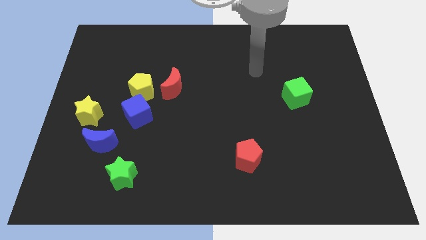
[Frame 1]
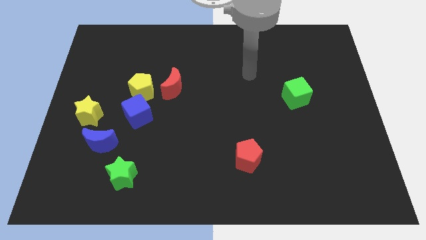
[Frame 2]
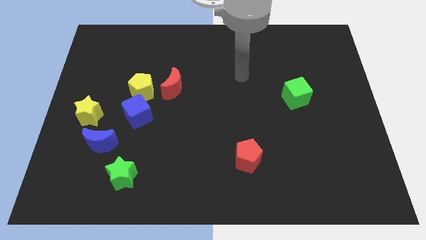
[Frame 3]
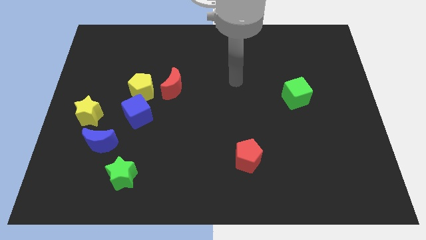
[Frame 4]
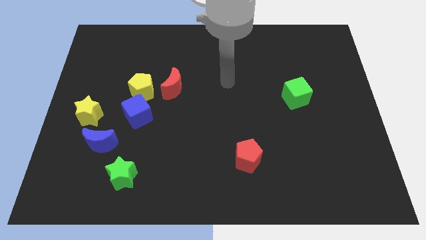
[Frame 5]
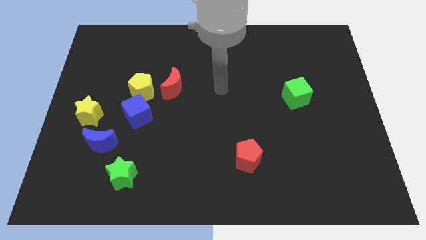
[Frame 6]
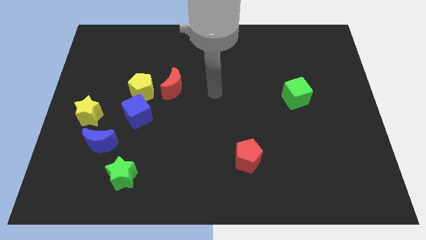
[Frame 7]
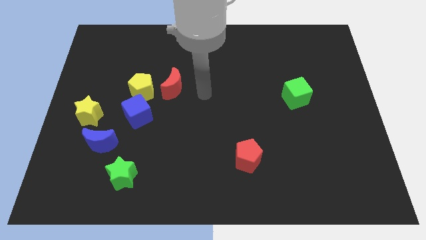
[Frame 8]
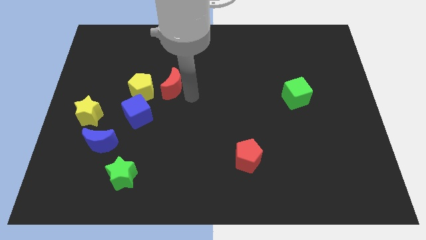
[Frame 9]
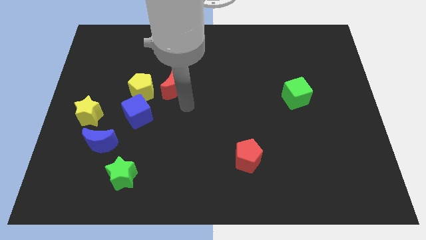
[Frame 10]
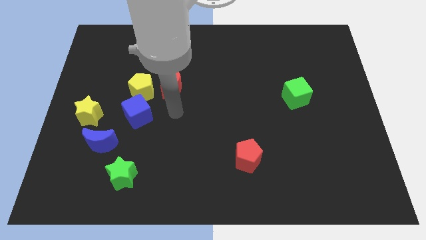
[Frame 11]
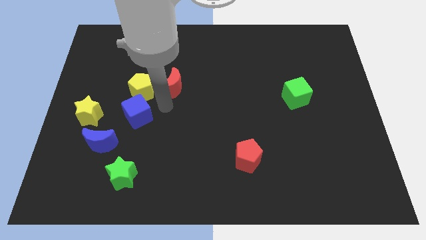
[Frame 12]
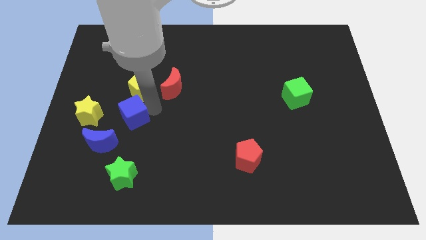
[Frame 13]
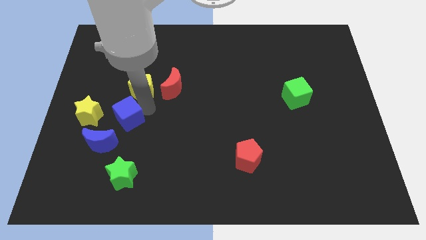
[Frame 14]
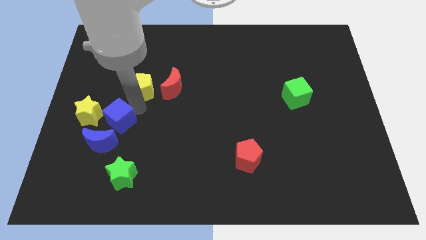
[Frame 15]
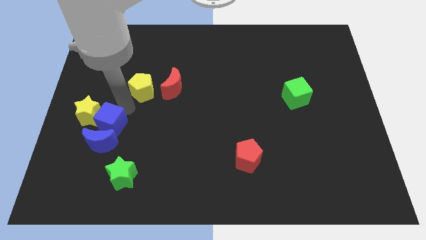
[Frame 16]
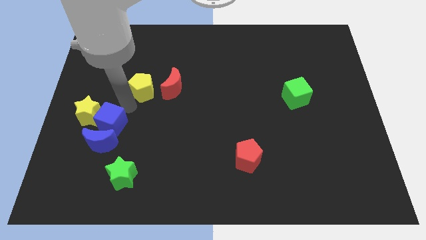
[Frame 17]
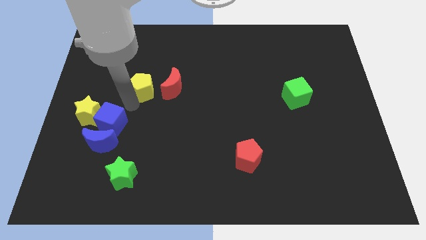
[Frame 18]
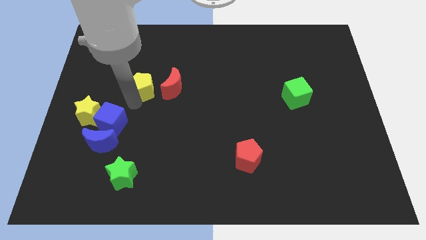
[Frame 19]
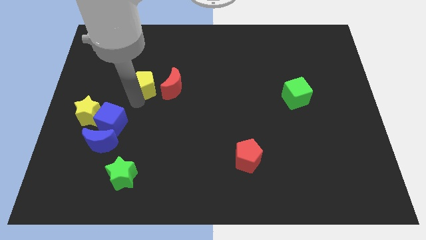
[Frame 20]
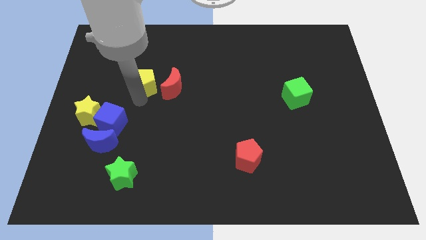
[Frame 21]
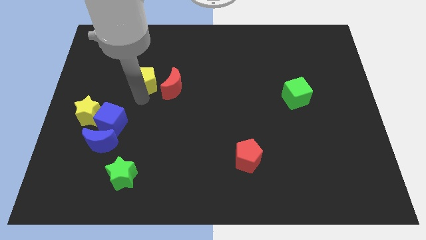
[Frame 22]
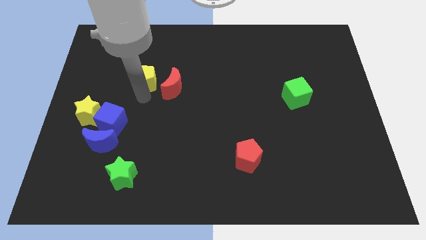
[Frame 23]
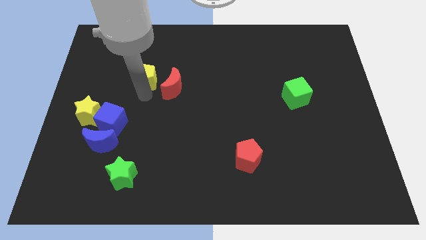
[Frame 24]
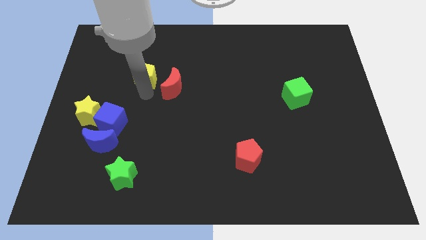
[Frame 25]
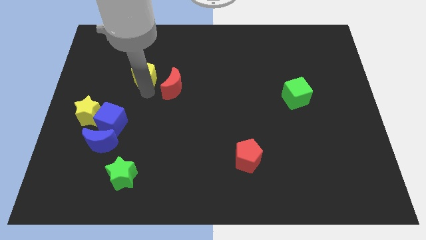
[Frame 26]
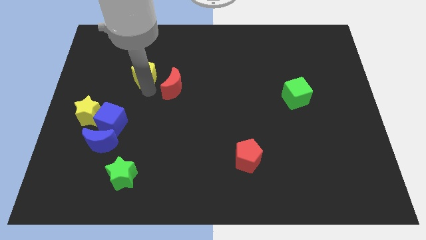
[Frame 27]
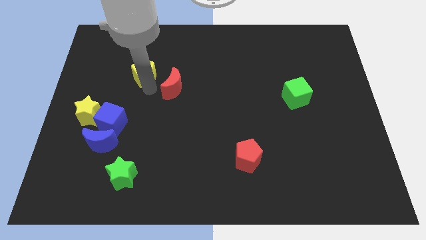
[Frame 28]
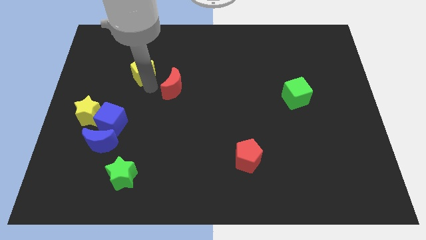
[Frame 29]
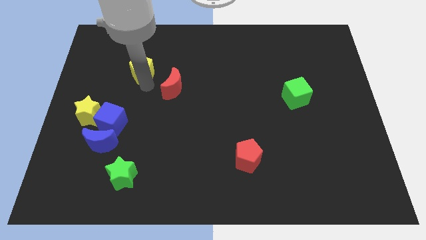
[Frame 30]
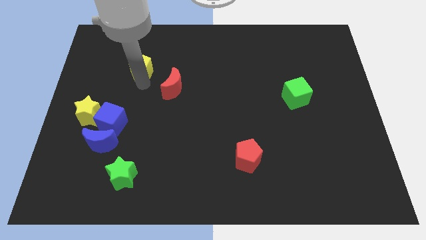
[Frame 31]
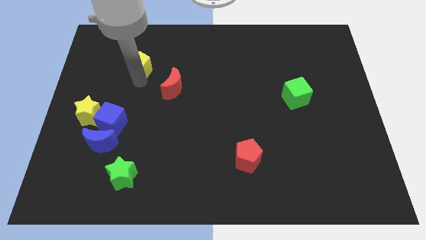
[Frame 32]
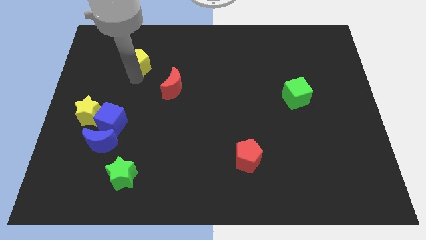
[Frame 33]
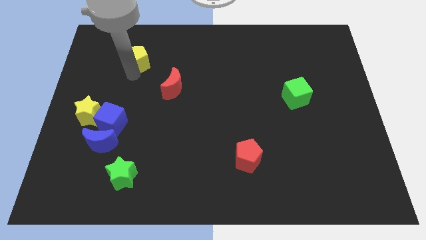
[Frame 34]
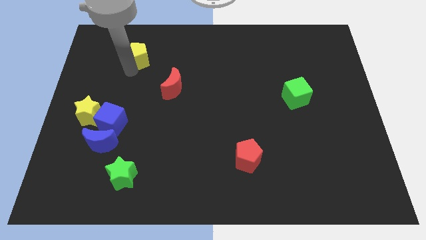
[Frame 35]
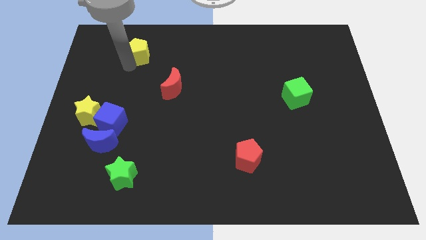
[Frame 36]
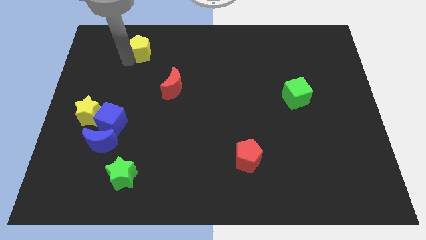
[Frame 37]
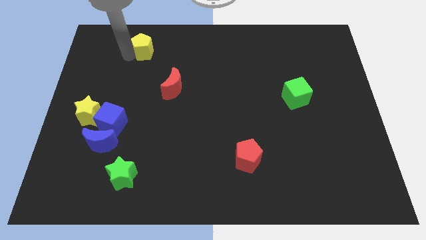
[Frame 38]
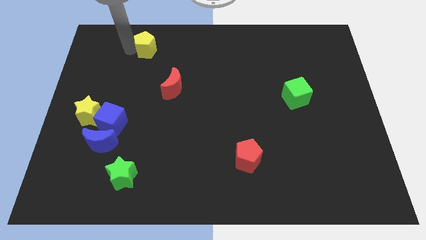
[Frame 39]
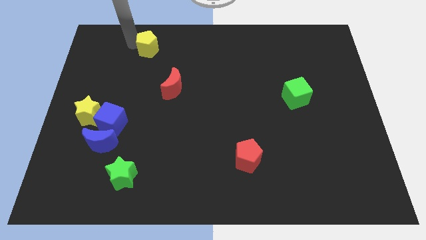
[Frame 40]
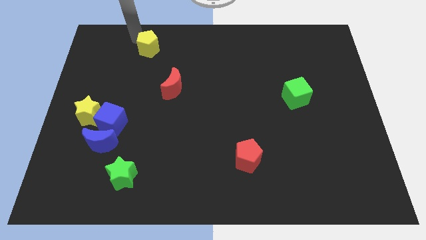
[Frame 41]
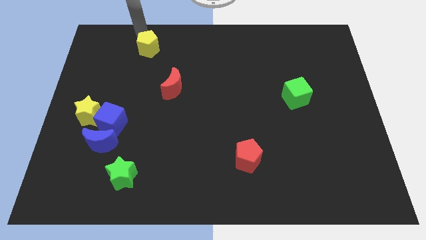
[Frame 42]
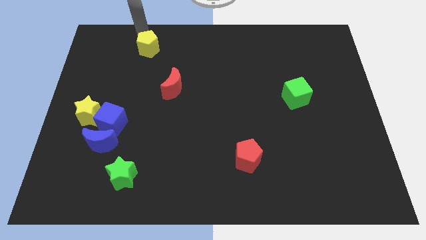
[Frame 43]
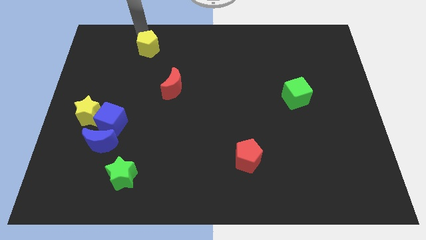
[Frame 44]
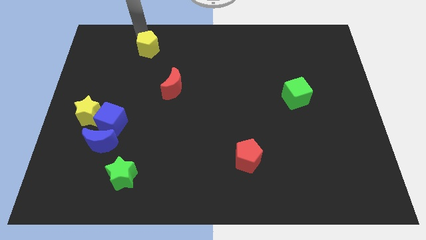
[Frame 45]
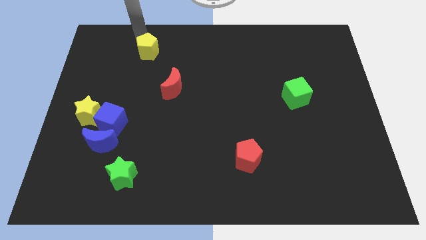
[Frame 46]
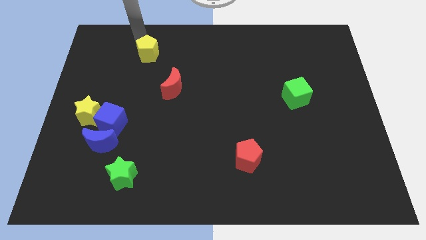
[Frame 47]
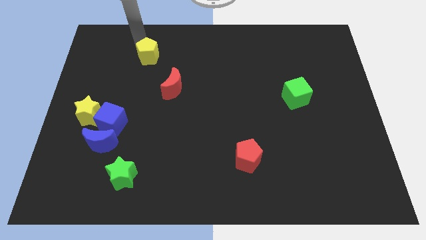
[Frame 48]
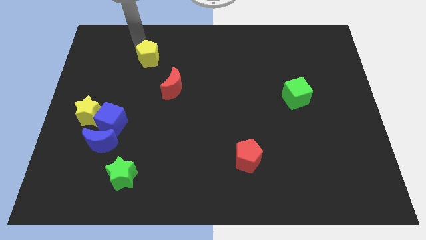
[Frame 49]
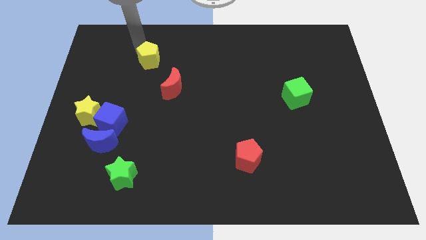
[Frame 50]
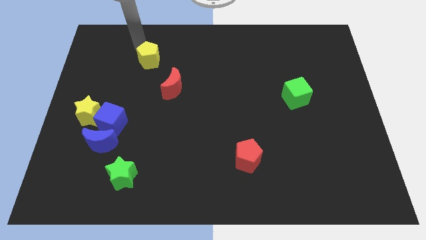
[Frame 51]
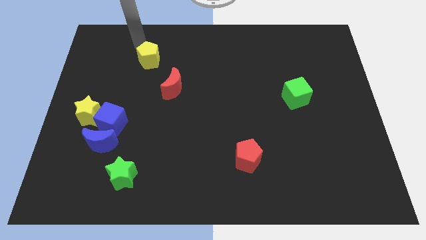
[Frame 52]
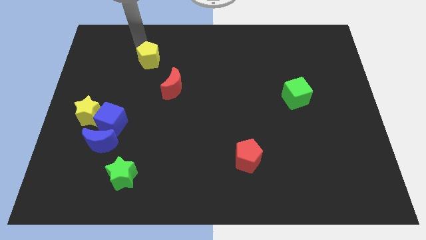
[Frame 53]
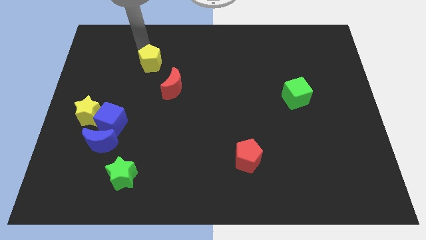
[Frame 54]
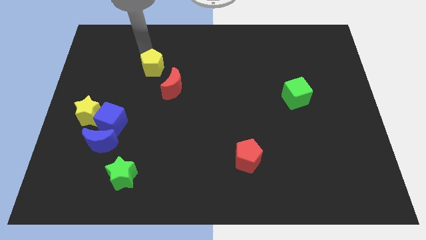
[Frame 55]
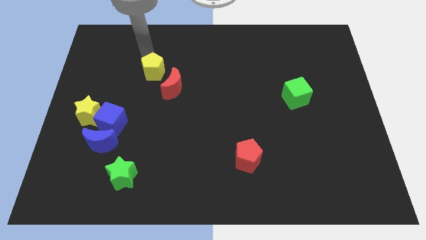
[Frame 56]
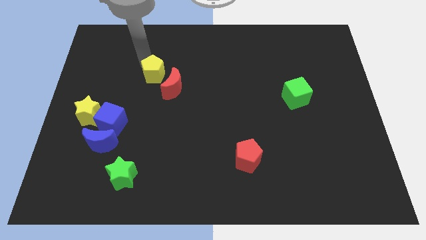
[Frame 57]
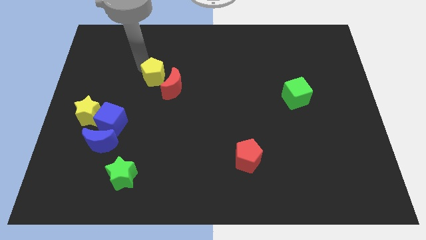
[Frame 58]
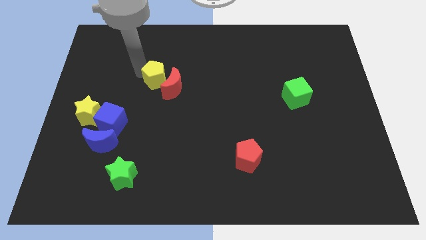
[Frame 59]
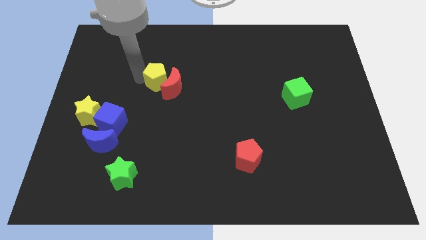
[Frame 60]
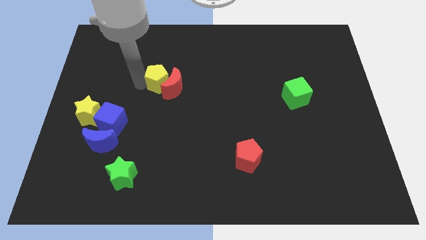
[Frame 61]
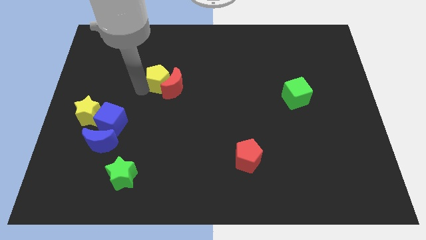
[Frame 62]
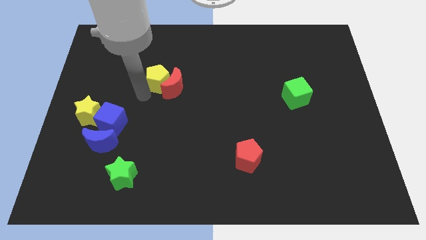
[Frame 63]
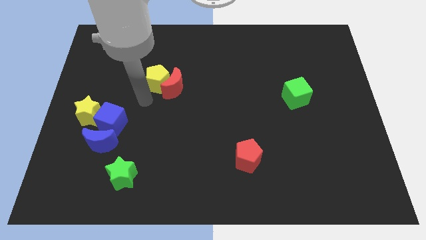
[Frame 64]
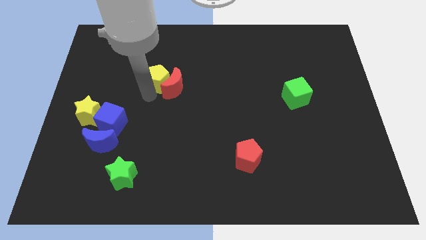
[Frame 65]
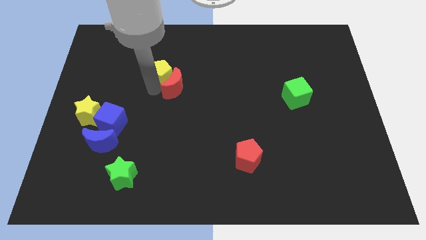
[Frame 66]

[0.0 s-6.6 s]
slide the yellow pentagon to the top side of the red moon
